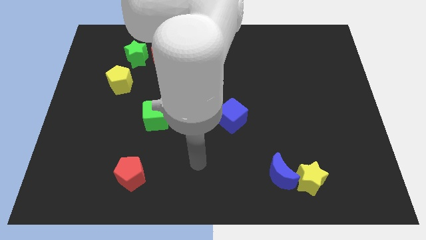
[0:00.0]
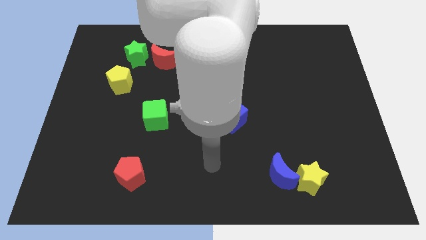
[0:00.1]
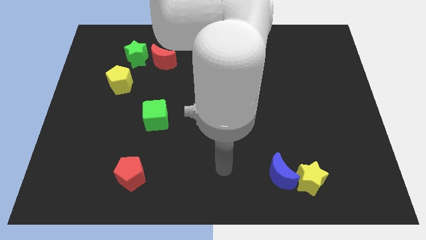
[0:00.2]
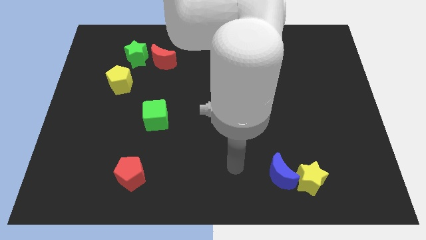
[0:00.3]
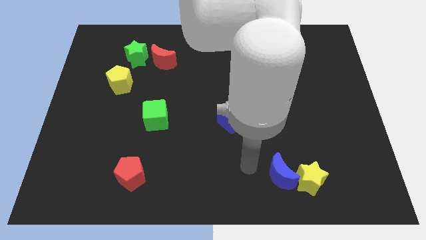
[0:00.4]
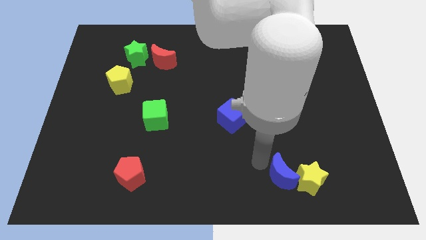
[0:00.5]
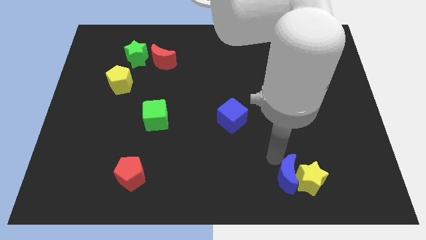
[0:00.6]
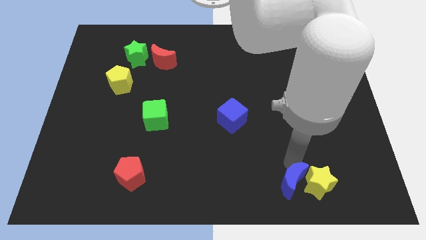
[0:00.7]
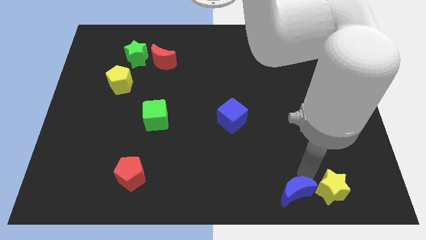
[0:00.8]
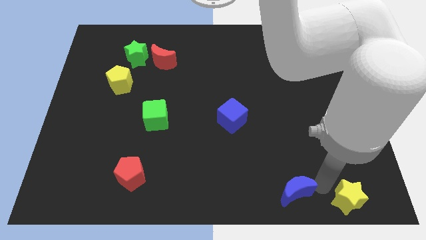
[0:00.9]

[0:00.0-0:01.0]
pull the blue moon apart from the yellow star

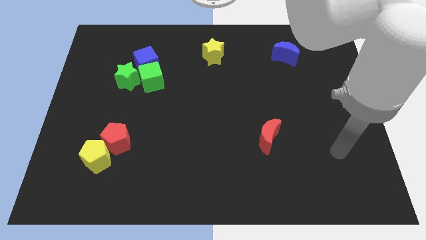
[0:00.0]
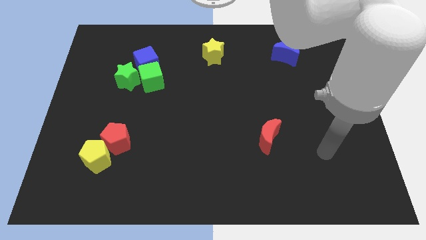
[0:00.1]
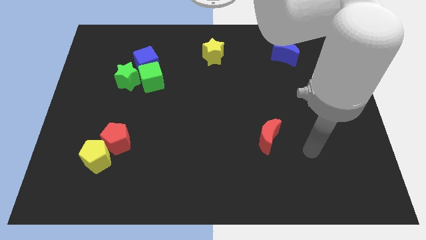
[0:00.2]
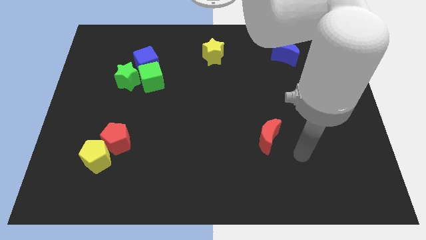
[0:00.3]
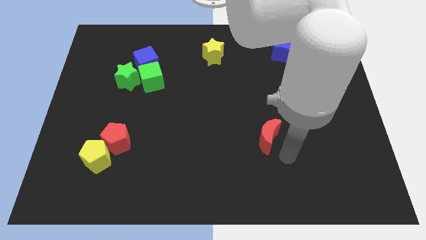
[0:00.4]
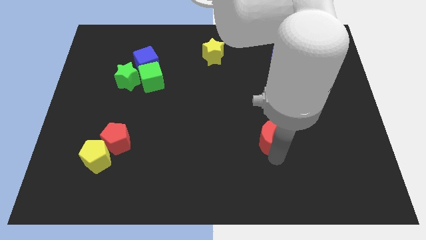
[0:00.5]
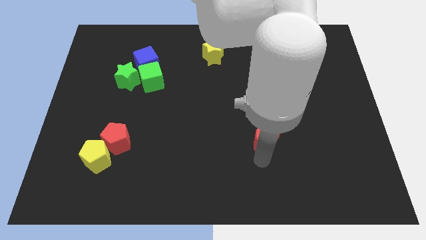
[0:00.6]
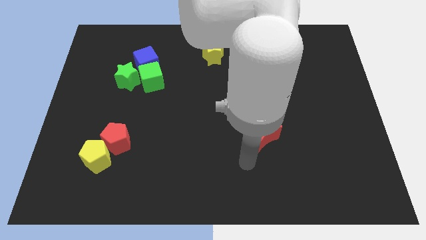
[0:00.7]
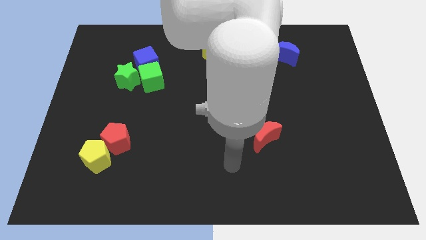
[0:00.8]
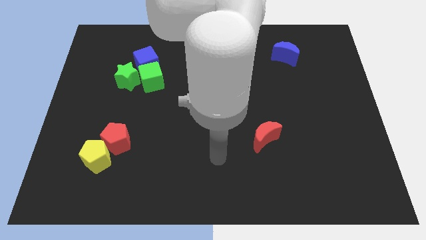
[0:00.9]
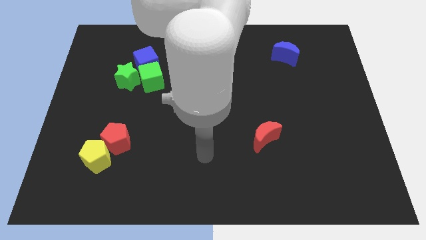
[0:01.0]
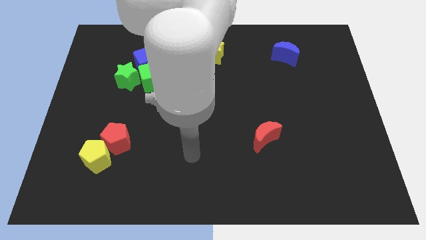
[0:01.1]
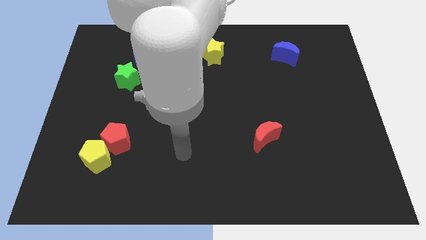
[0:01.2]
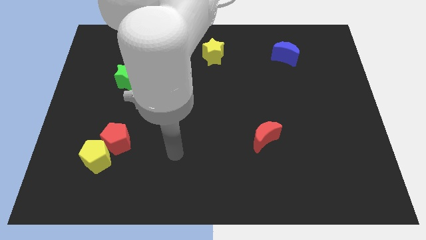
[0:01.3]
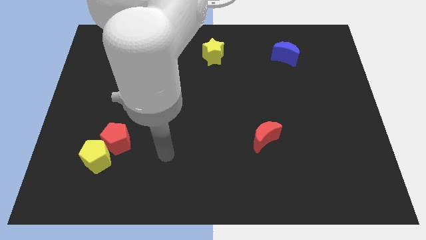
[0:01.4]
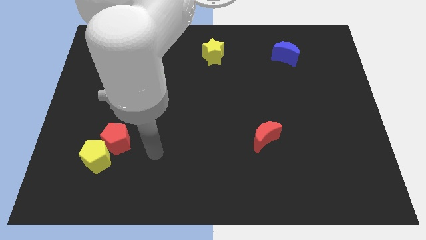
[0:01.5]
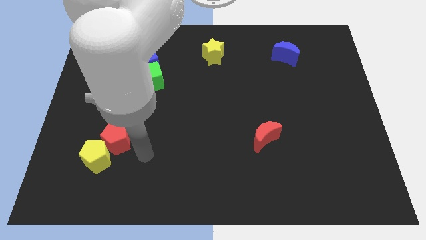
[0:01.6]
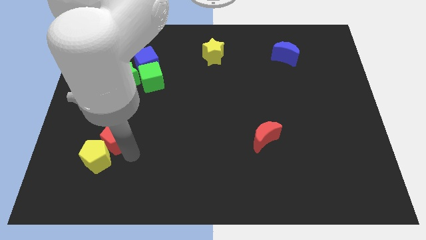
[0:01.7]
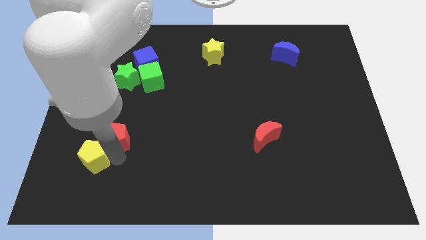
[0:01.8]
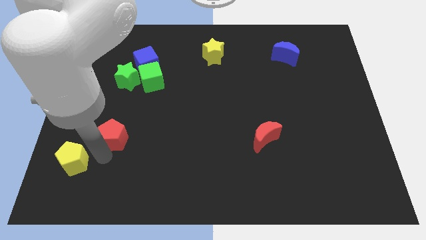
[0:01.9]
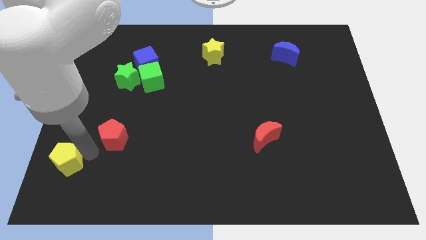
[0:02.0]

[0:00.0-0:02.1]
separate the red pentagon from the yellow pentagon

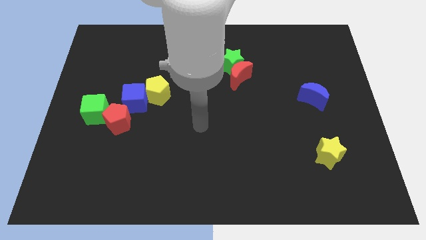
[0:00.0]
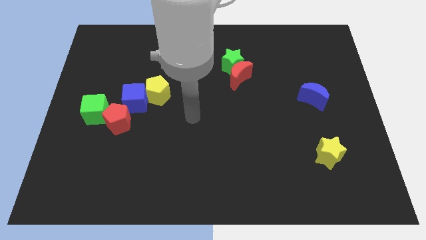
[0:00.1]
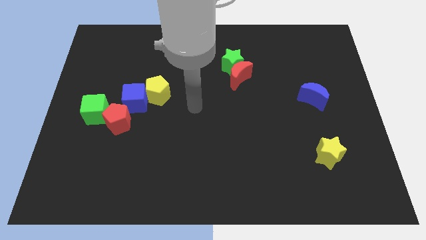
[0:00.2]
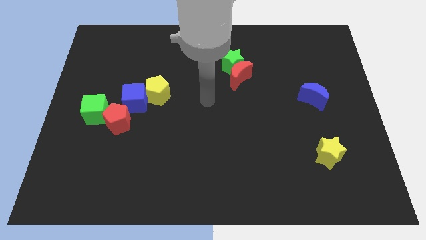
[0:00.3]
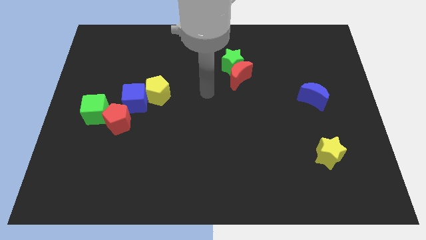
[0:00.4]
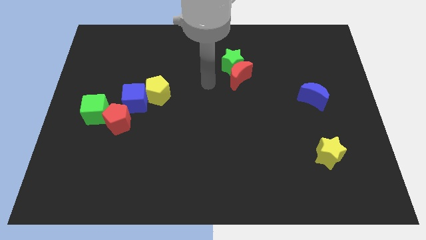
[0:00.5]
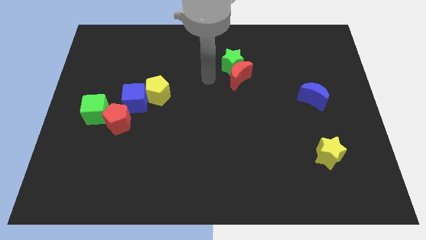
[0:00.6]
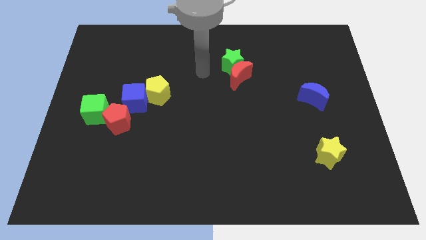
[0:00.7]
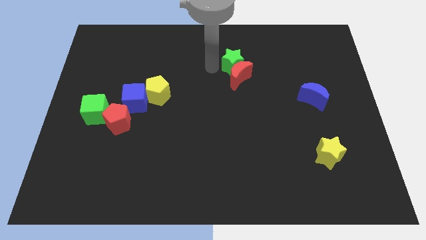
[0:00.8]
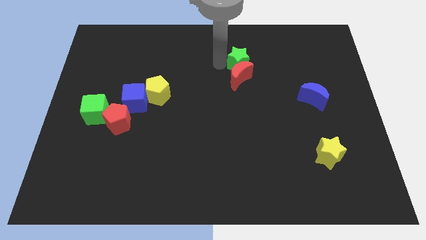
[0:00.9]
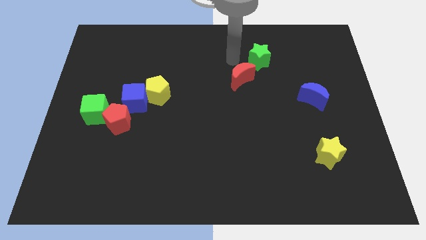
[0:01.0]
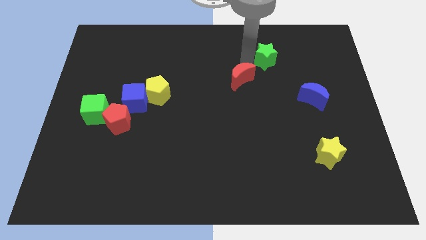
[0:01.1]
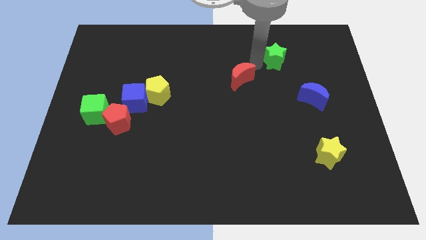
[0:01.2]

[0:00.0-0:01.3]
separate the red moon from the green star

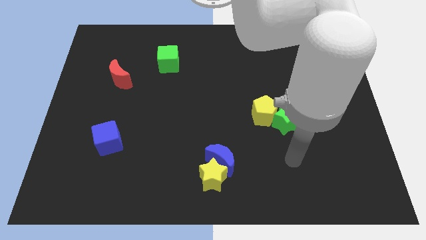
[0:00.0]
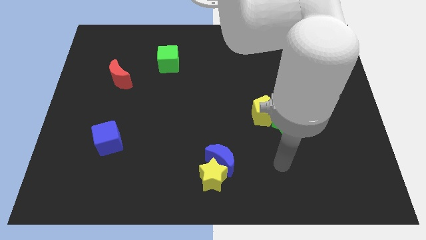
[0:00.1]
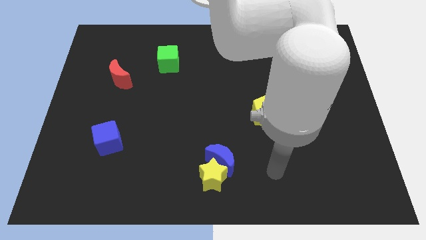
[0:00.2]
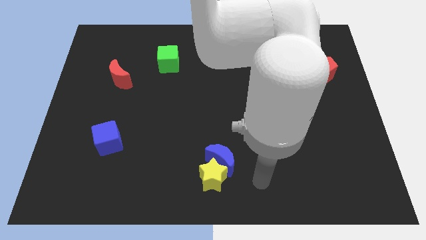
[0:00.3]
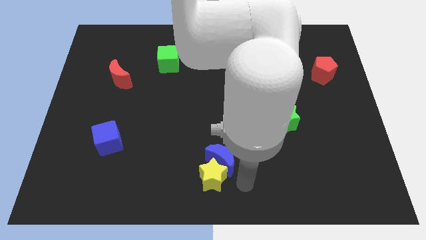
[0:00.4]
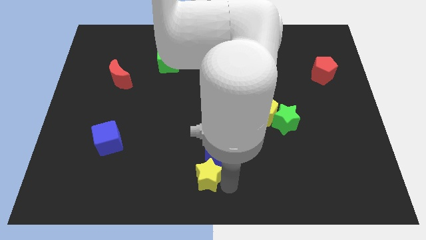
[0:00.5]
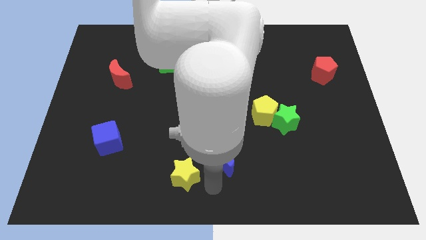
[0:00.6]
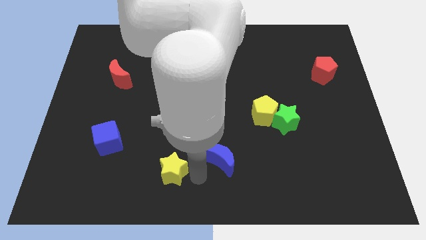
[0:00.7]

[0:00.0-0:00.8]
separate the blue moon from the yellow star

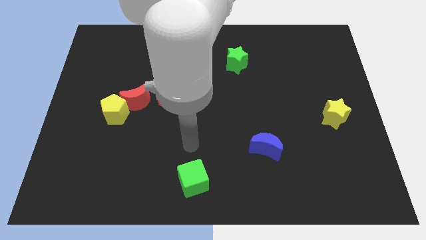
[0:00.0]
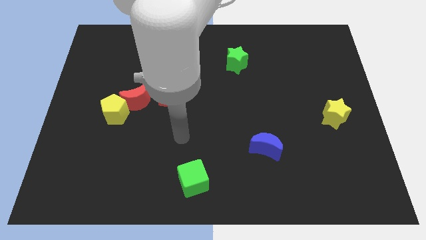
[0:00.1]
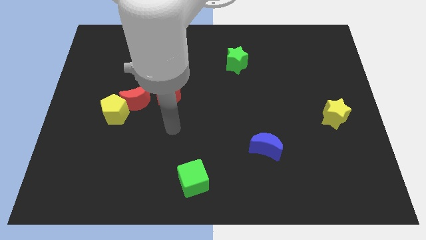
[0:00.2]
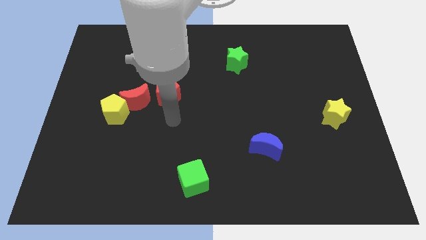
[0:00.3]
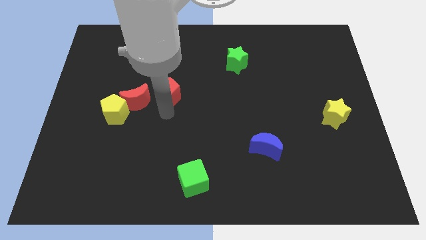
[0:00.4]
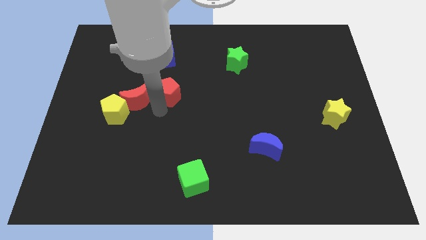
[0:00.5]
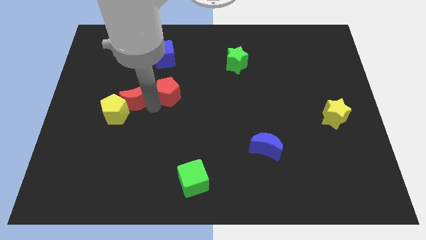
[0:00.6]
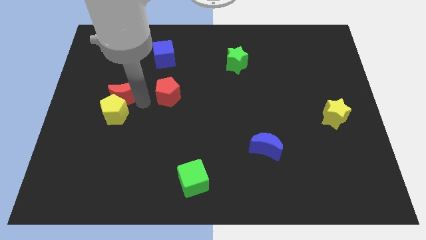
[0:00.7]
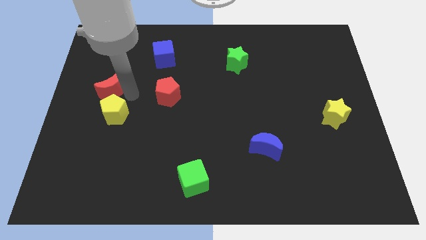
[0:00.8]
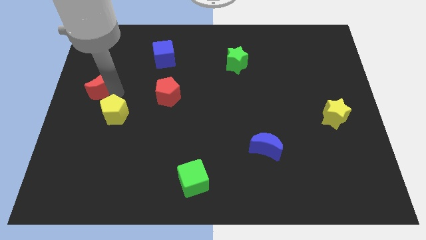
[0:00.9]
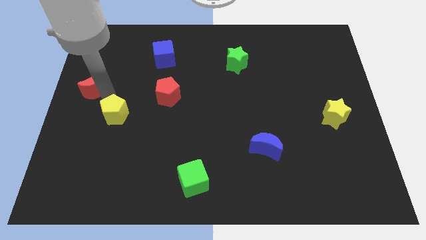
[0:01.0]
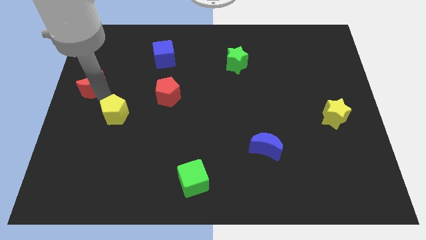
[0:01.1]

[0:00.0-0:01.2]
separate the yellow pentagon from the red moon

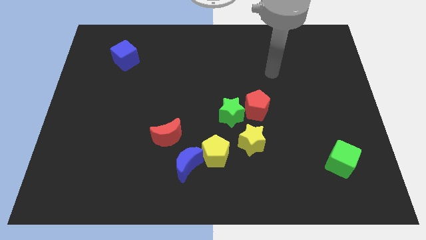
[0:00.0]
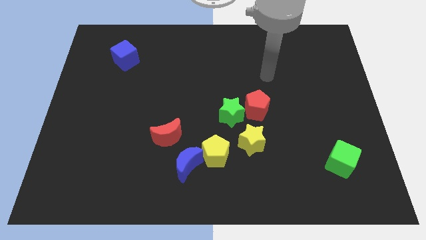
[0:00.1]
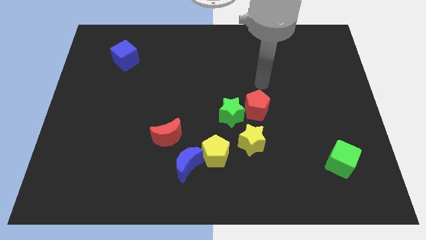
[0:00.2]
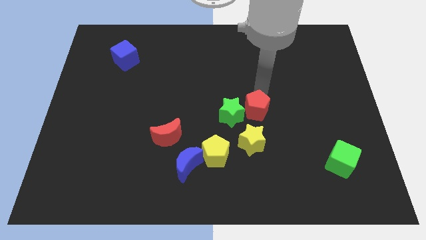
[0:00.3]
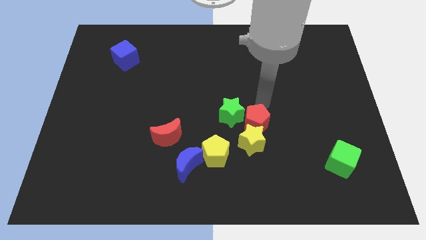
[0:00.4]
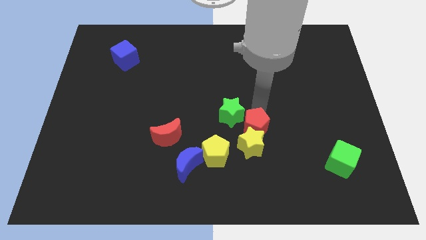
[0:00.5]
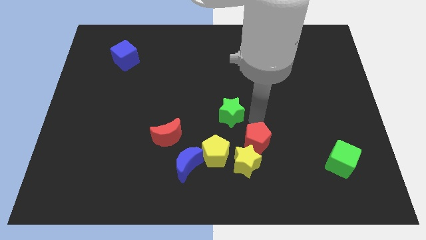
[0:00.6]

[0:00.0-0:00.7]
move the green star away from the red pentagon and yellow star

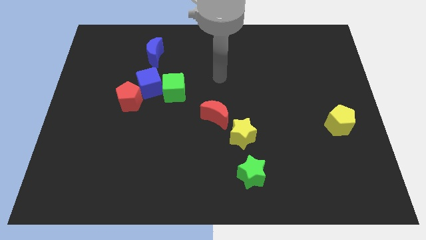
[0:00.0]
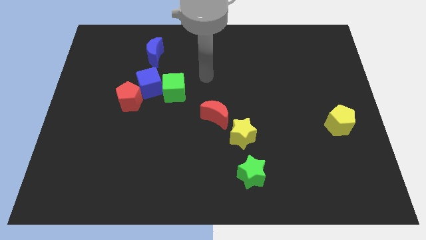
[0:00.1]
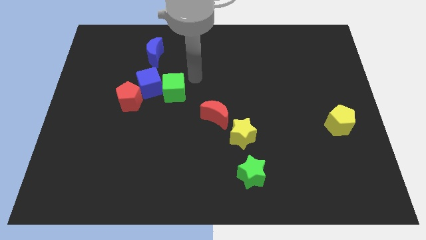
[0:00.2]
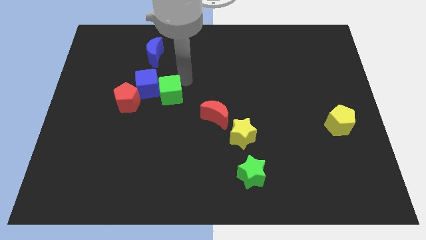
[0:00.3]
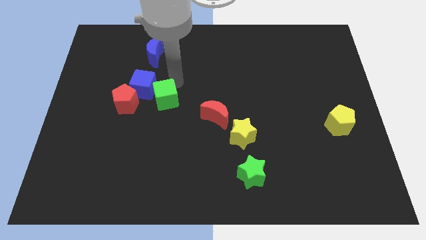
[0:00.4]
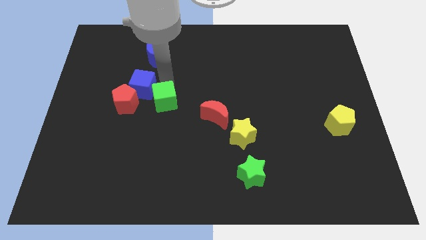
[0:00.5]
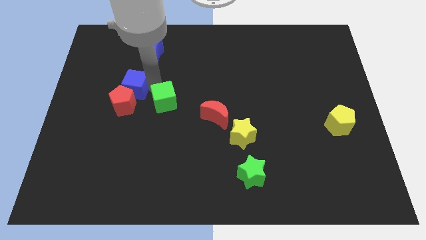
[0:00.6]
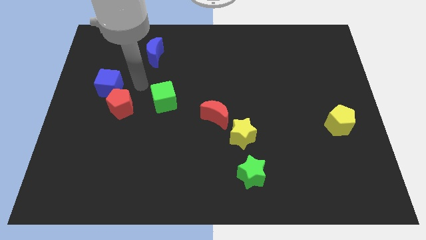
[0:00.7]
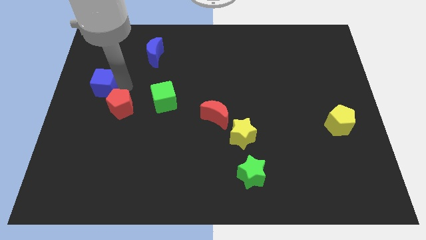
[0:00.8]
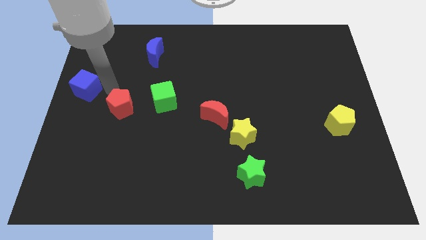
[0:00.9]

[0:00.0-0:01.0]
move the red pentagon away from the blue cube

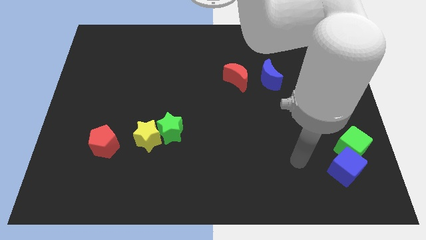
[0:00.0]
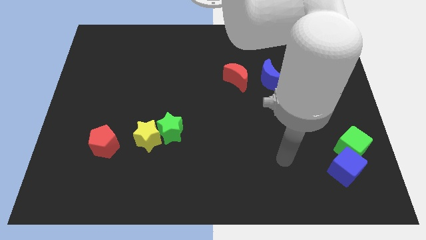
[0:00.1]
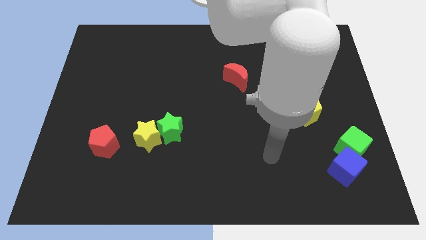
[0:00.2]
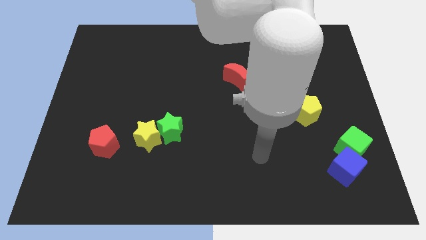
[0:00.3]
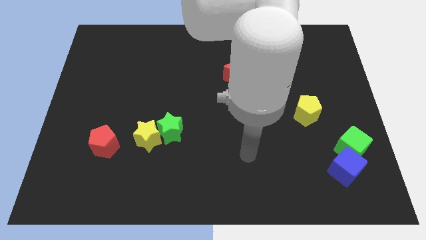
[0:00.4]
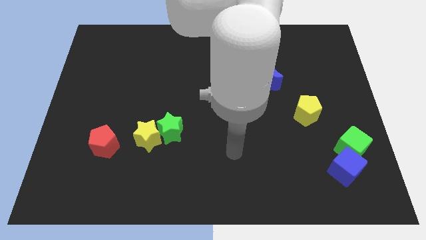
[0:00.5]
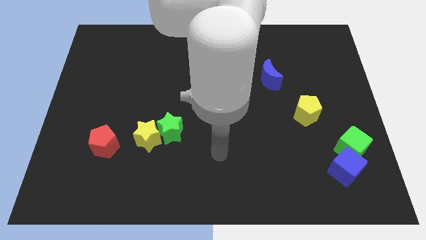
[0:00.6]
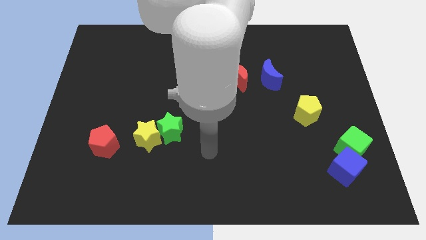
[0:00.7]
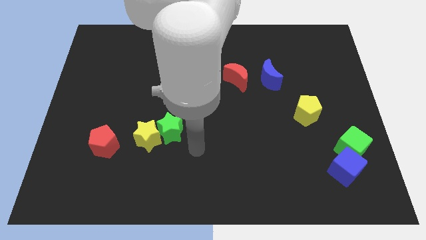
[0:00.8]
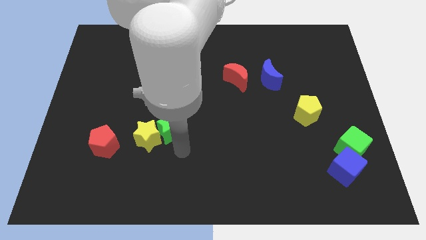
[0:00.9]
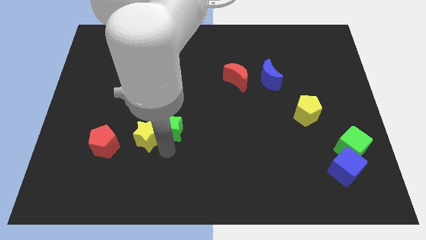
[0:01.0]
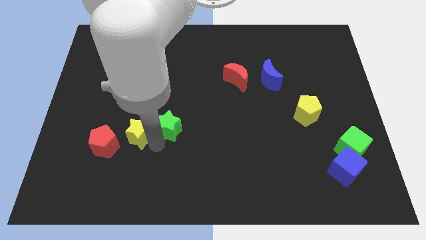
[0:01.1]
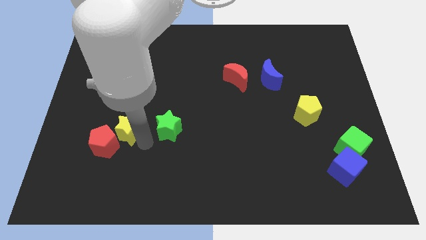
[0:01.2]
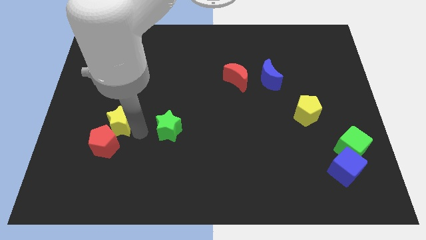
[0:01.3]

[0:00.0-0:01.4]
separate the green star from the yellow star
